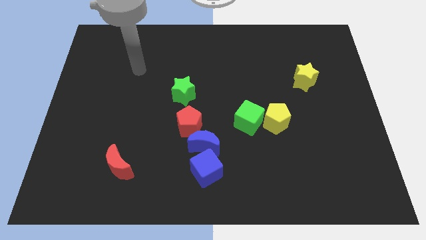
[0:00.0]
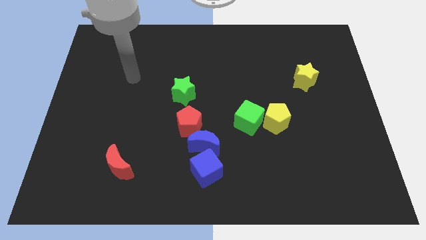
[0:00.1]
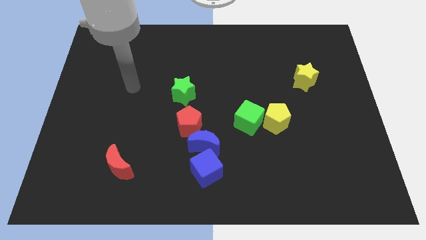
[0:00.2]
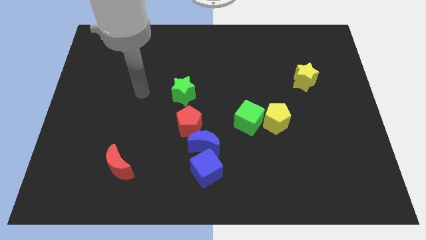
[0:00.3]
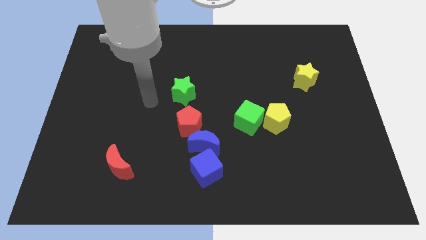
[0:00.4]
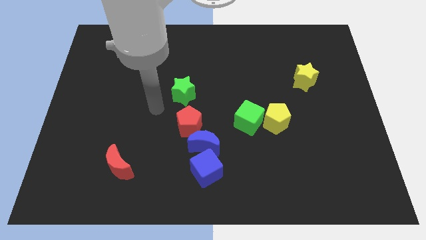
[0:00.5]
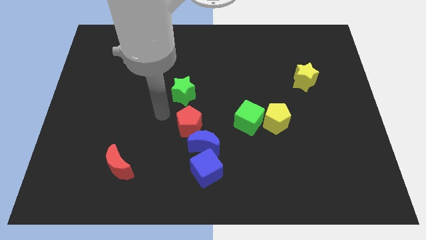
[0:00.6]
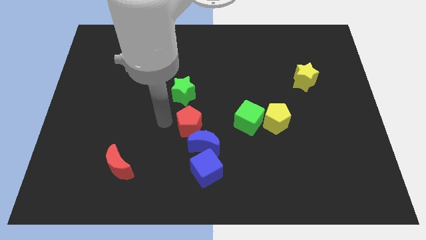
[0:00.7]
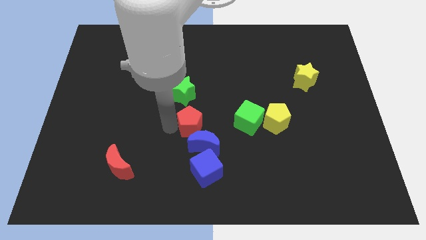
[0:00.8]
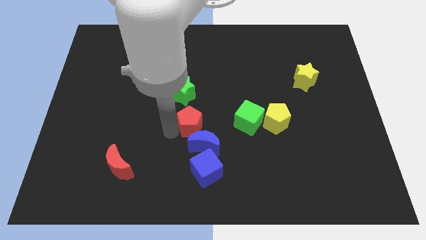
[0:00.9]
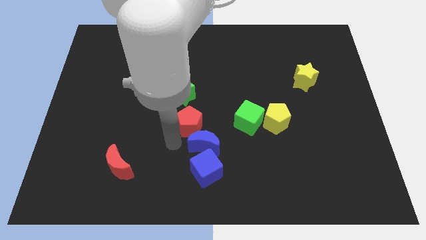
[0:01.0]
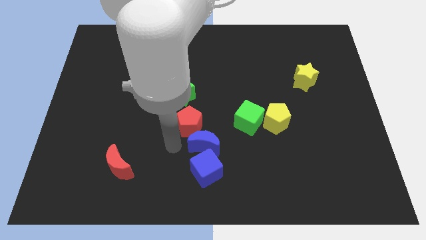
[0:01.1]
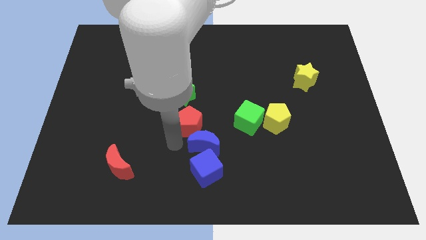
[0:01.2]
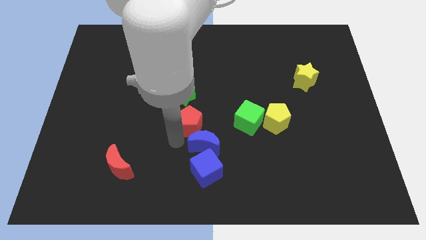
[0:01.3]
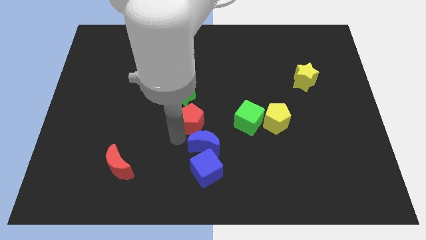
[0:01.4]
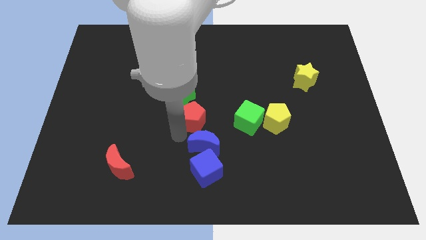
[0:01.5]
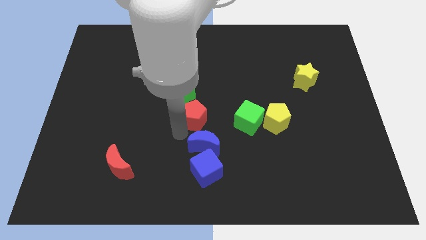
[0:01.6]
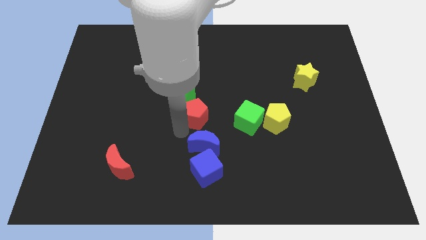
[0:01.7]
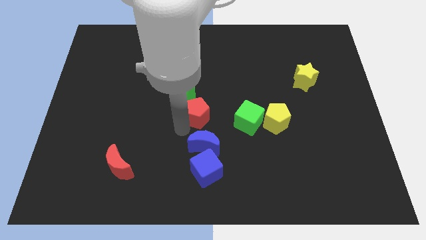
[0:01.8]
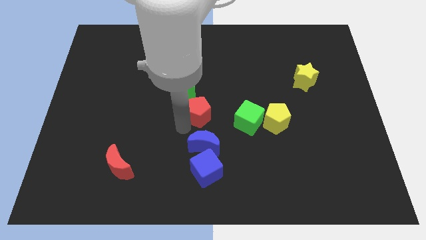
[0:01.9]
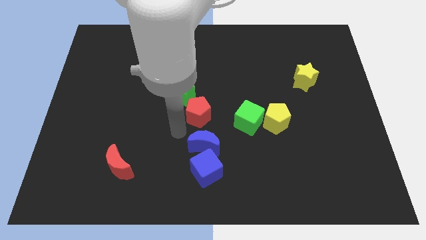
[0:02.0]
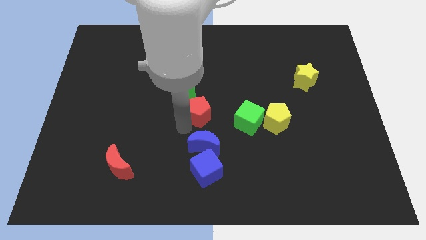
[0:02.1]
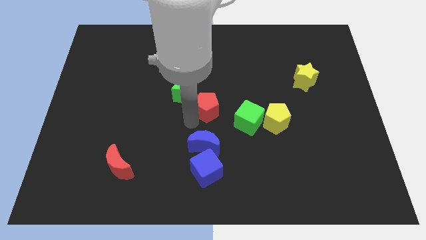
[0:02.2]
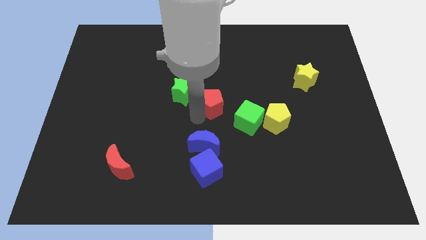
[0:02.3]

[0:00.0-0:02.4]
push the red pentagon a little bit upwards and right diagonally

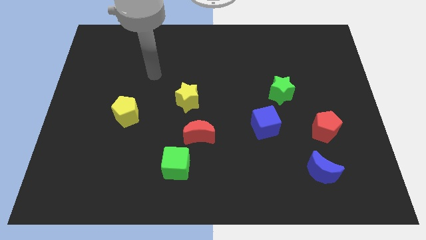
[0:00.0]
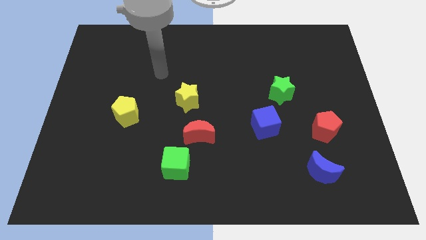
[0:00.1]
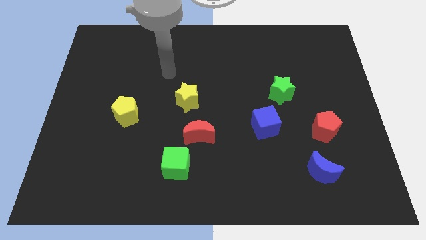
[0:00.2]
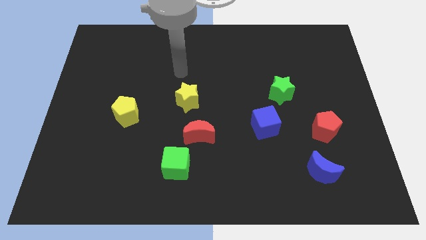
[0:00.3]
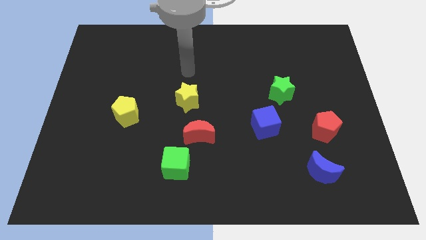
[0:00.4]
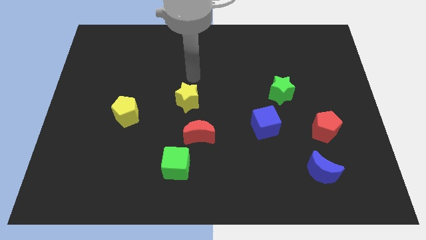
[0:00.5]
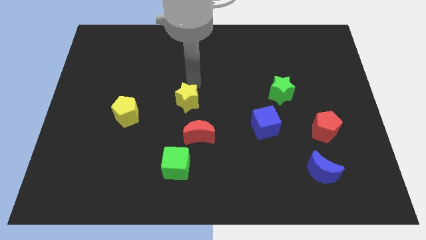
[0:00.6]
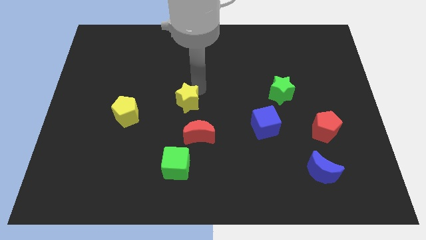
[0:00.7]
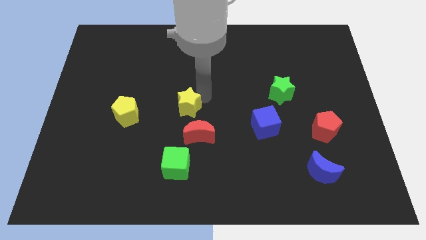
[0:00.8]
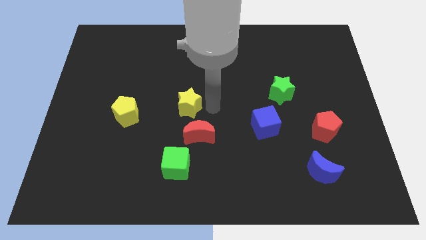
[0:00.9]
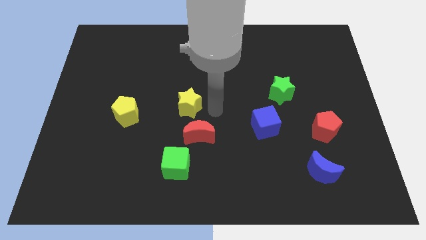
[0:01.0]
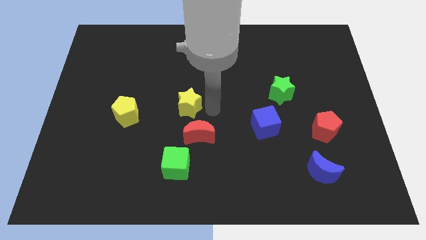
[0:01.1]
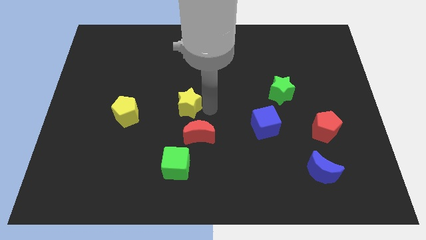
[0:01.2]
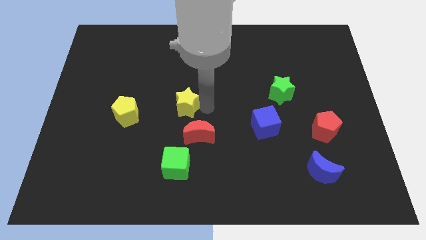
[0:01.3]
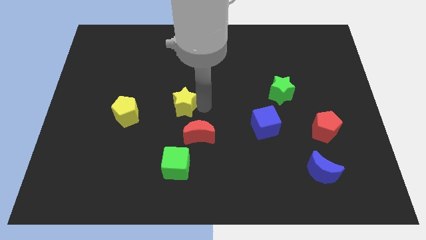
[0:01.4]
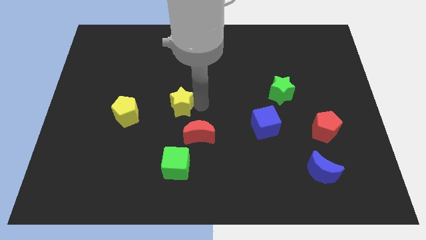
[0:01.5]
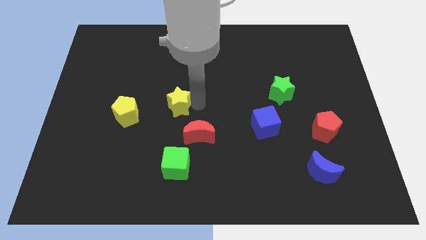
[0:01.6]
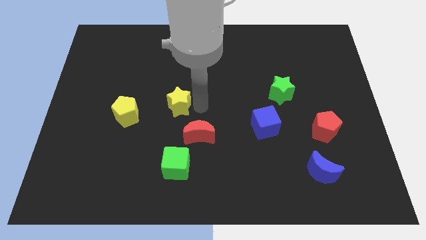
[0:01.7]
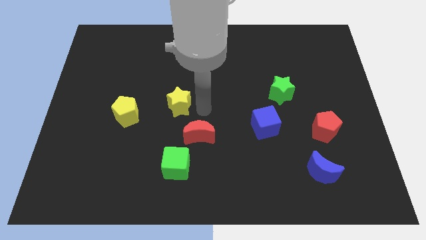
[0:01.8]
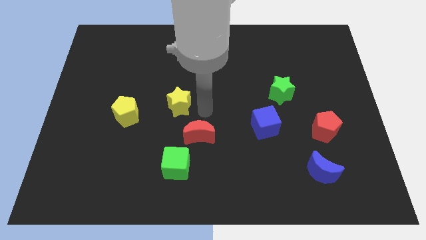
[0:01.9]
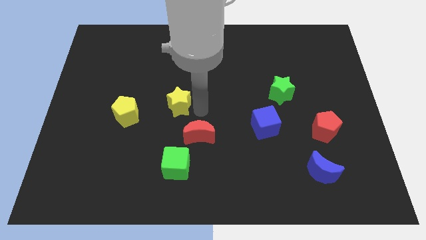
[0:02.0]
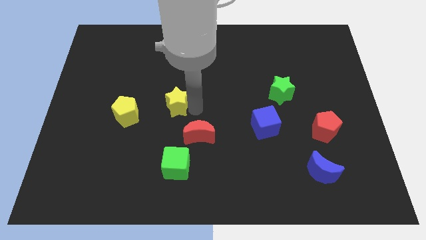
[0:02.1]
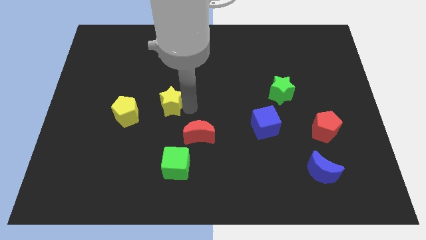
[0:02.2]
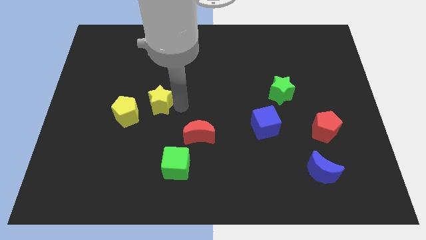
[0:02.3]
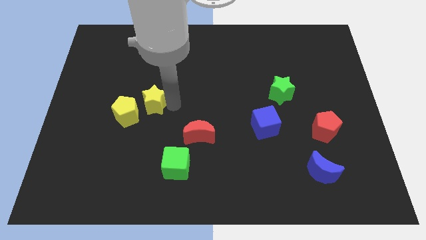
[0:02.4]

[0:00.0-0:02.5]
slightly push the yellow star left

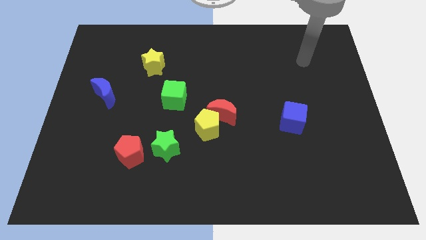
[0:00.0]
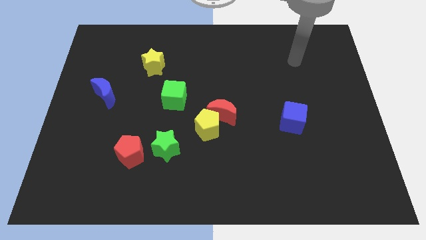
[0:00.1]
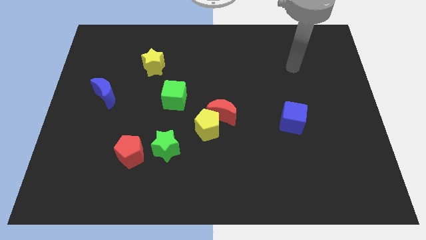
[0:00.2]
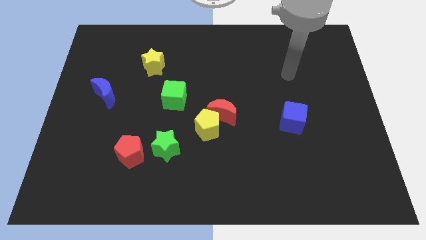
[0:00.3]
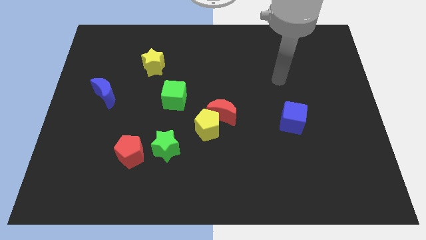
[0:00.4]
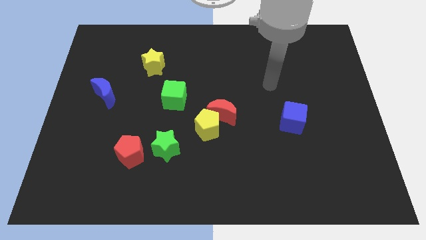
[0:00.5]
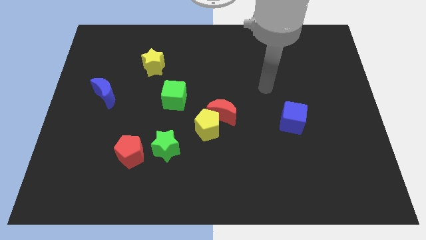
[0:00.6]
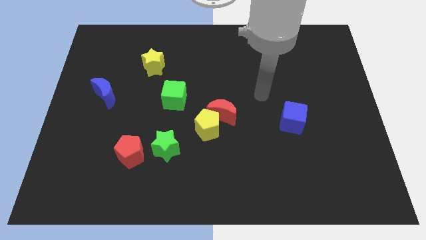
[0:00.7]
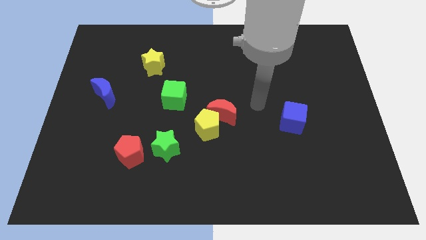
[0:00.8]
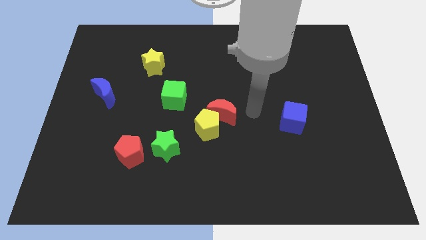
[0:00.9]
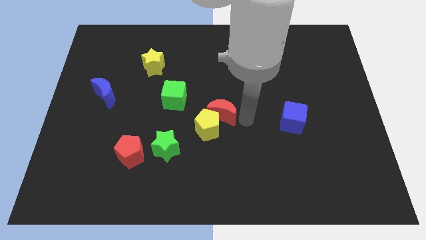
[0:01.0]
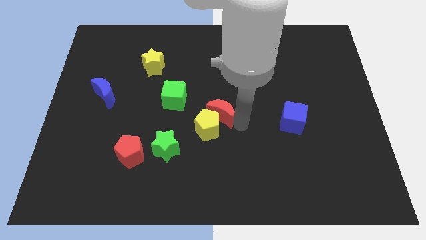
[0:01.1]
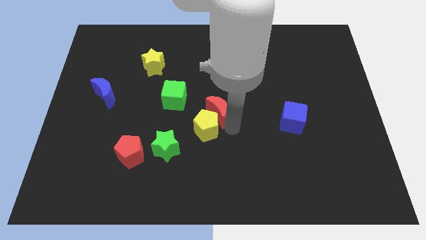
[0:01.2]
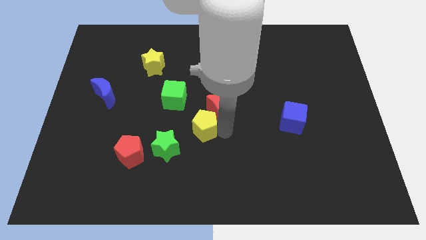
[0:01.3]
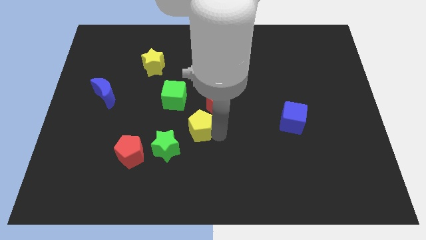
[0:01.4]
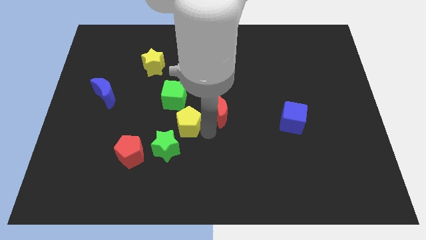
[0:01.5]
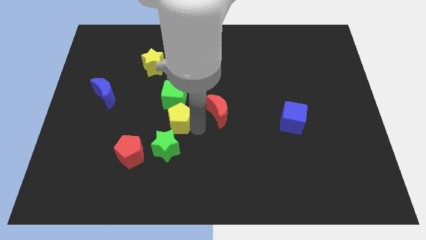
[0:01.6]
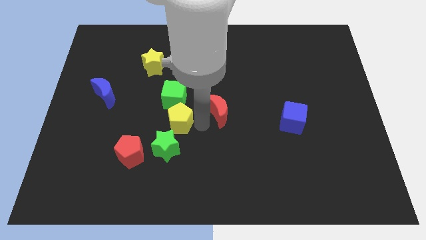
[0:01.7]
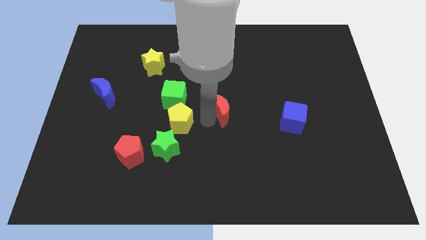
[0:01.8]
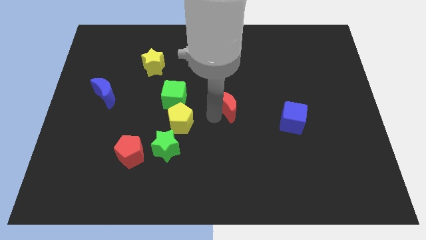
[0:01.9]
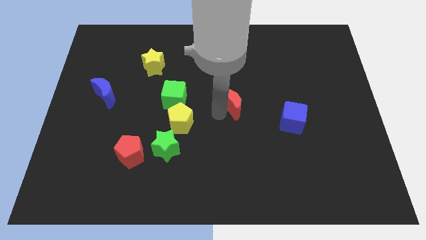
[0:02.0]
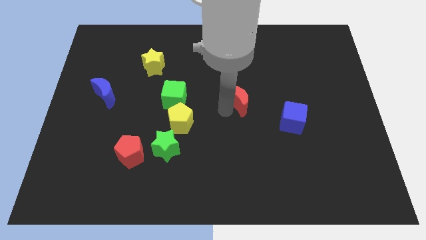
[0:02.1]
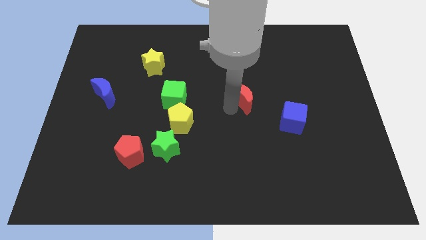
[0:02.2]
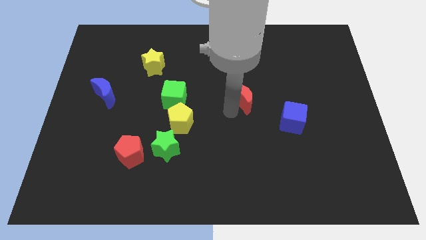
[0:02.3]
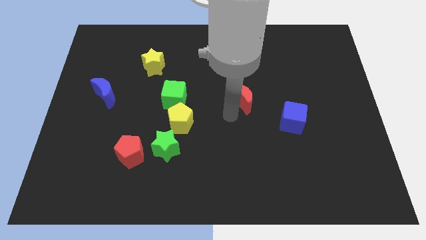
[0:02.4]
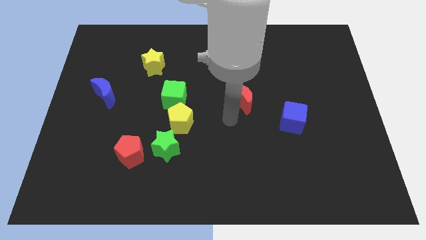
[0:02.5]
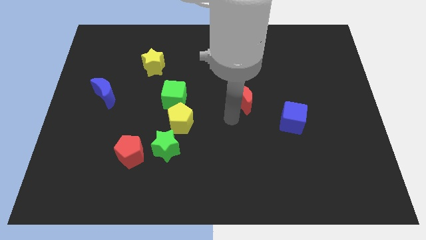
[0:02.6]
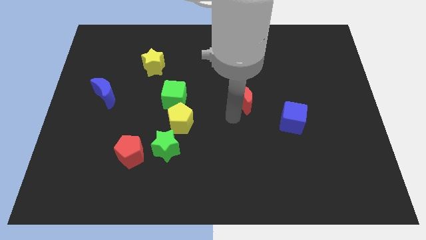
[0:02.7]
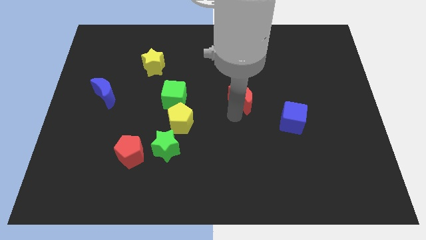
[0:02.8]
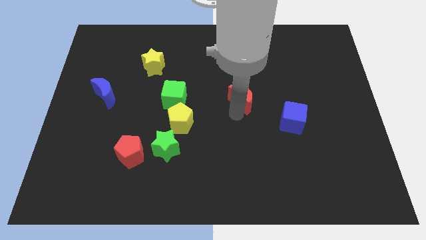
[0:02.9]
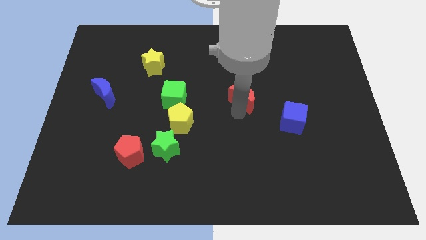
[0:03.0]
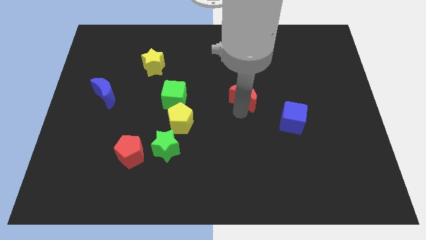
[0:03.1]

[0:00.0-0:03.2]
move the red moon slightly diagonally upwards and right

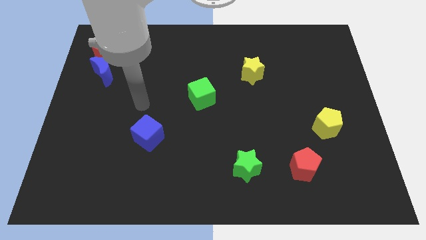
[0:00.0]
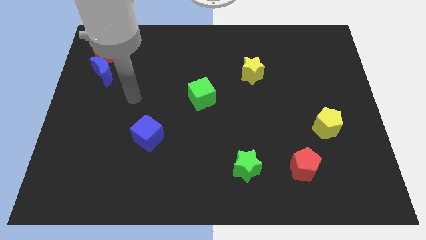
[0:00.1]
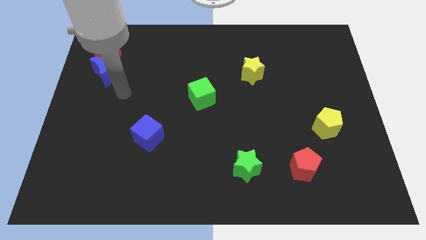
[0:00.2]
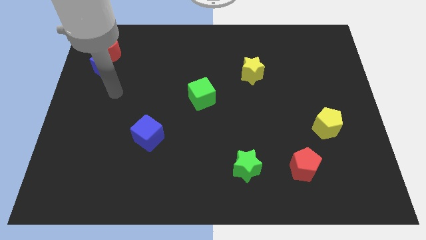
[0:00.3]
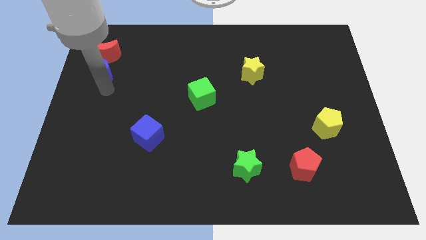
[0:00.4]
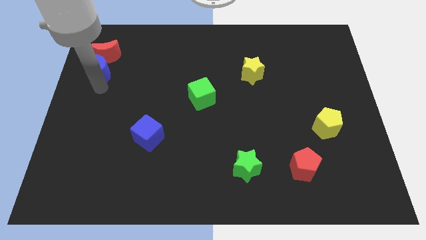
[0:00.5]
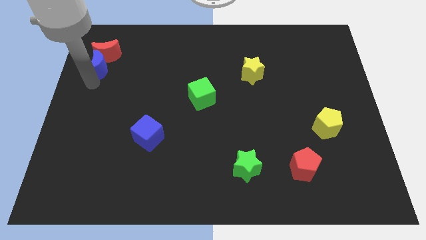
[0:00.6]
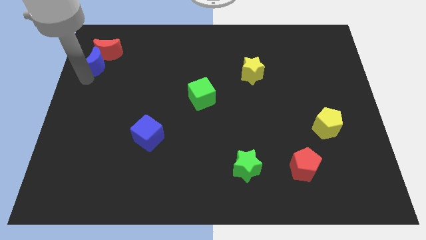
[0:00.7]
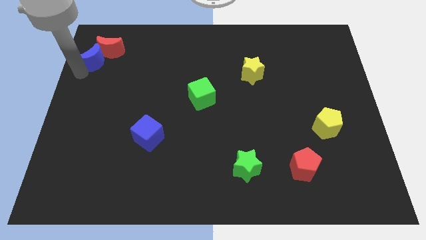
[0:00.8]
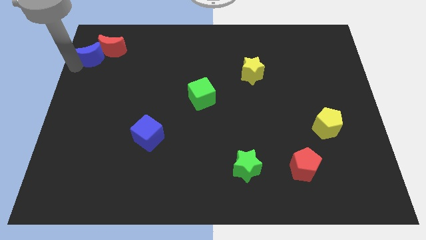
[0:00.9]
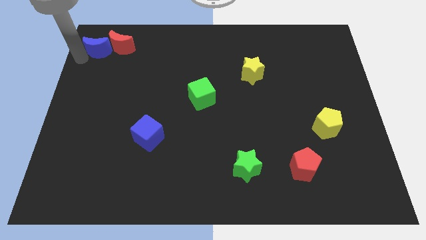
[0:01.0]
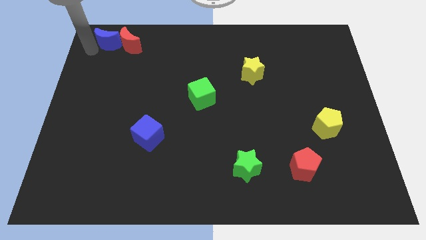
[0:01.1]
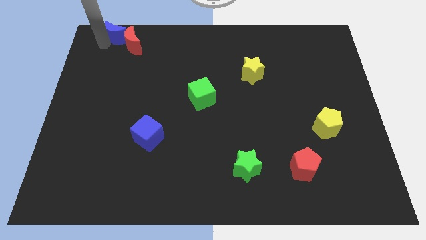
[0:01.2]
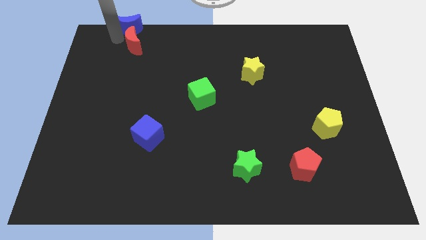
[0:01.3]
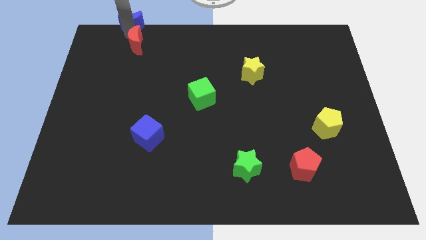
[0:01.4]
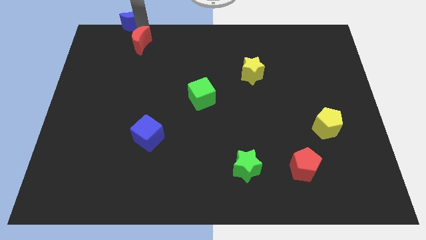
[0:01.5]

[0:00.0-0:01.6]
slightly move the red moon to the right
